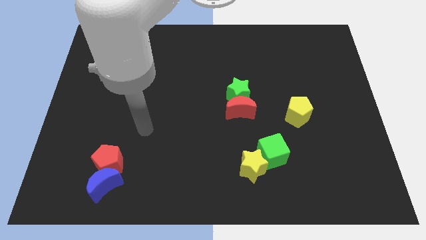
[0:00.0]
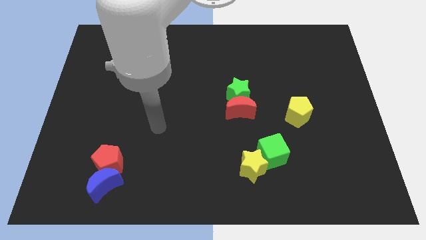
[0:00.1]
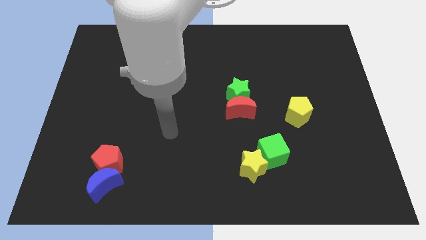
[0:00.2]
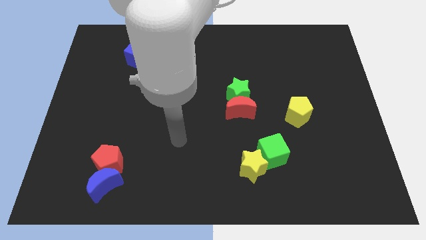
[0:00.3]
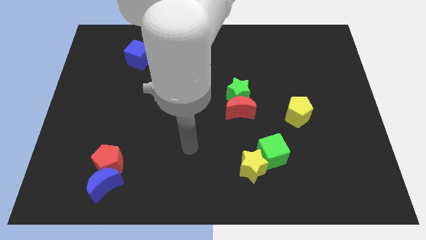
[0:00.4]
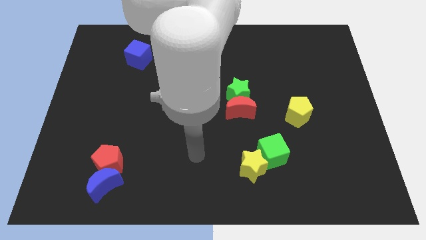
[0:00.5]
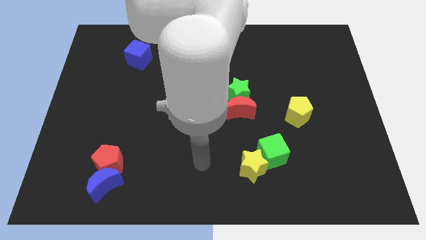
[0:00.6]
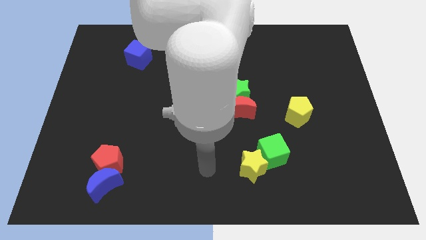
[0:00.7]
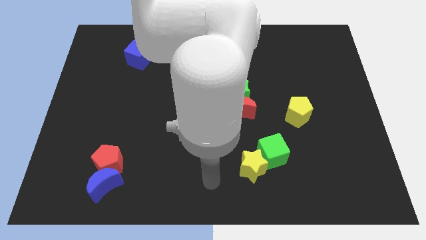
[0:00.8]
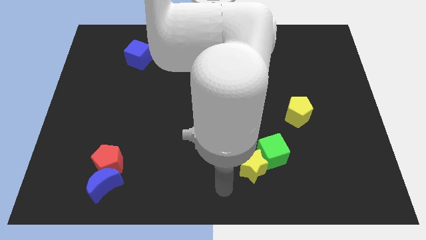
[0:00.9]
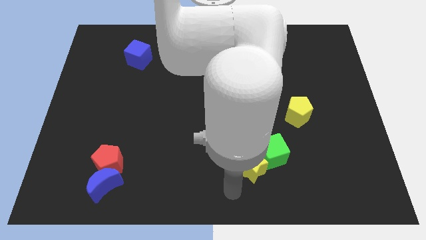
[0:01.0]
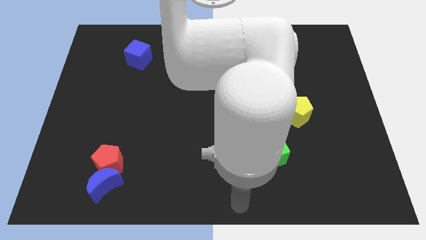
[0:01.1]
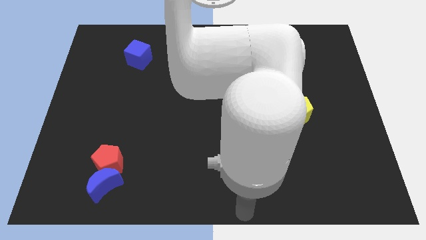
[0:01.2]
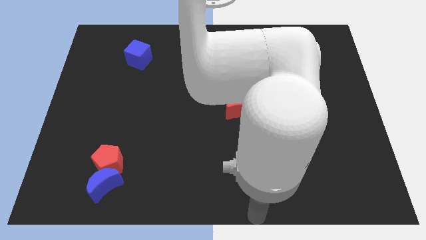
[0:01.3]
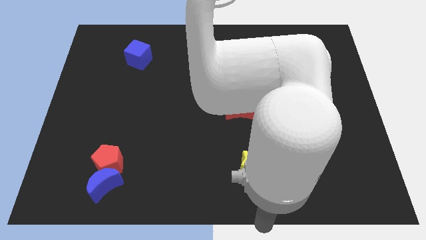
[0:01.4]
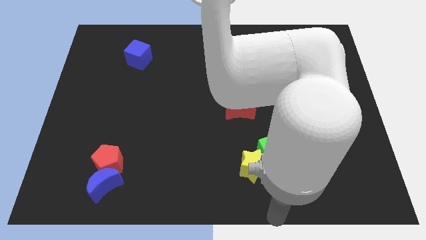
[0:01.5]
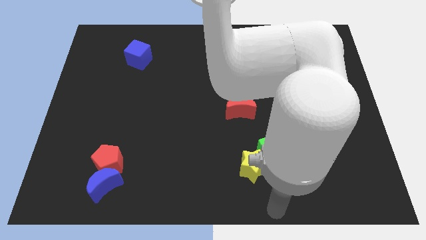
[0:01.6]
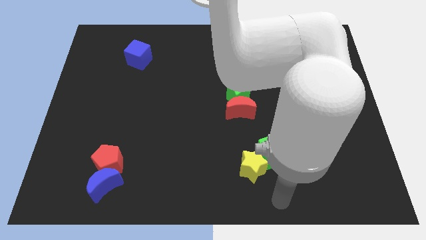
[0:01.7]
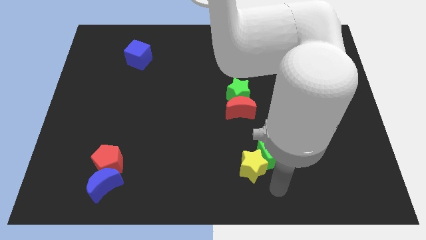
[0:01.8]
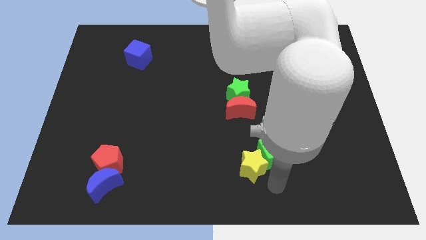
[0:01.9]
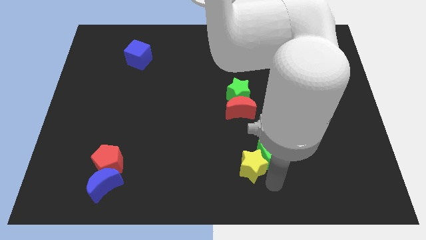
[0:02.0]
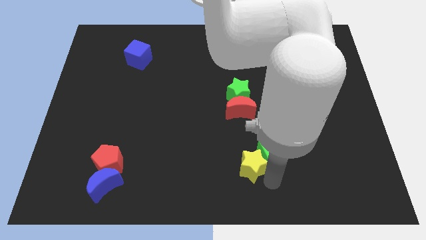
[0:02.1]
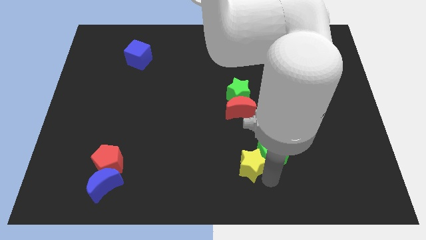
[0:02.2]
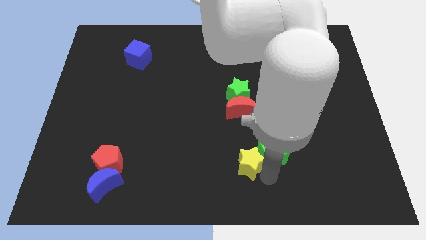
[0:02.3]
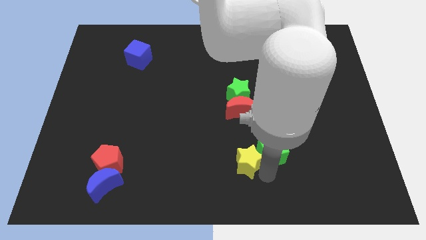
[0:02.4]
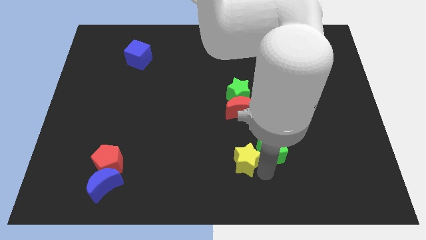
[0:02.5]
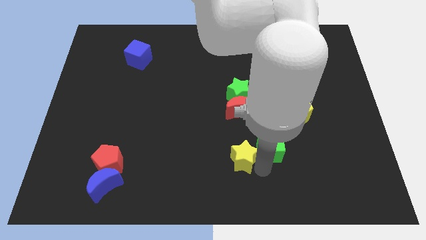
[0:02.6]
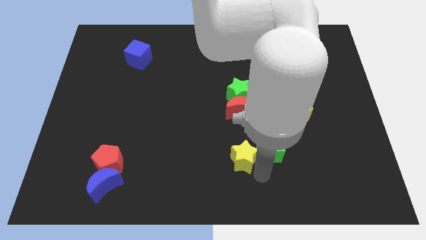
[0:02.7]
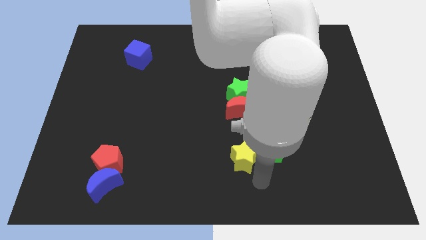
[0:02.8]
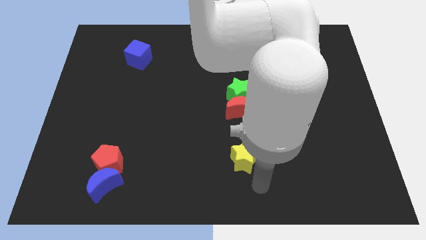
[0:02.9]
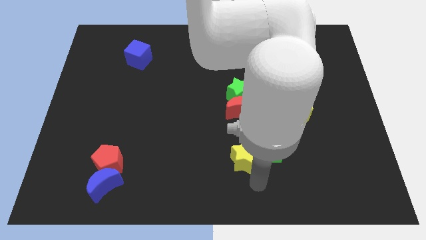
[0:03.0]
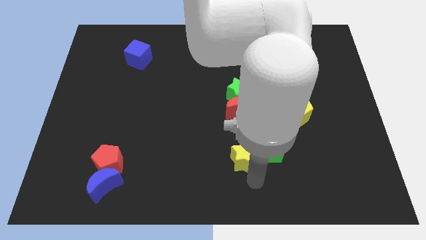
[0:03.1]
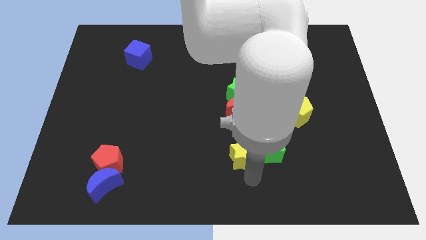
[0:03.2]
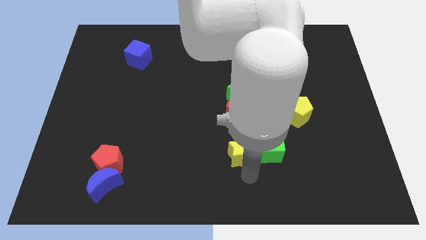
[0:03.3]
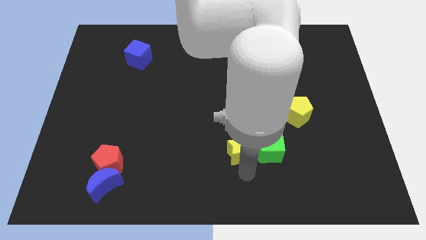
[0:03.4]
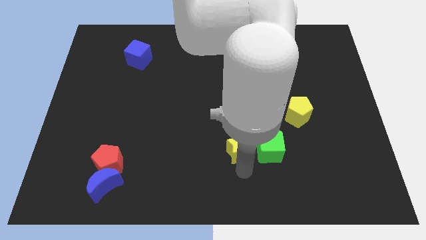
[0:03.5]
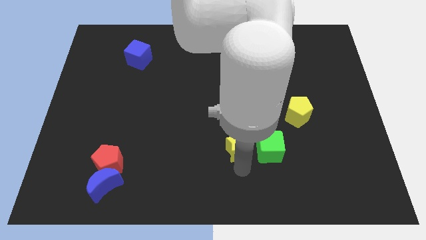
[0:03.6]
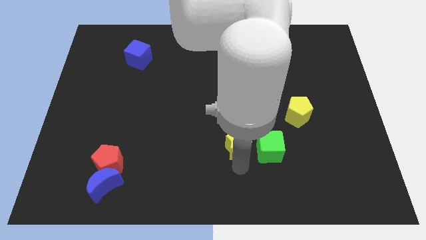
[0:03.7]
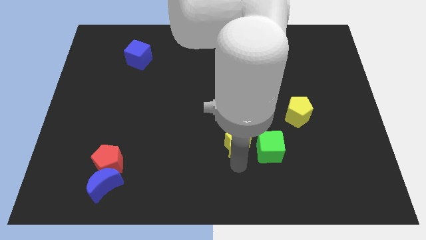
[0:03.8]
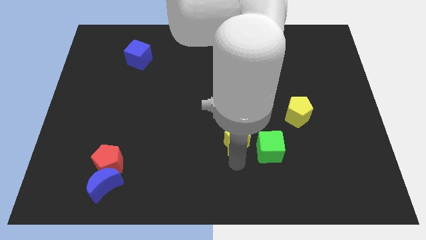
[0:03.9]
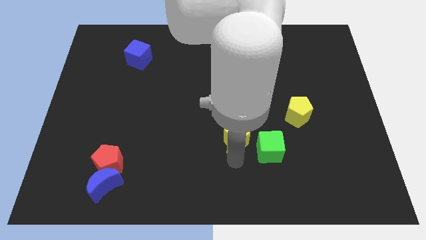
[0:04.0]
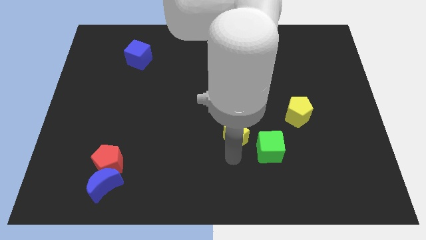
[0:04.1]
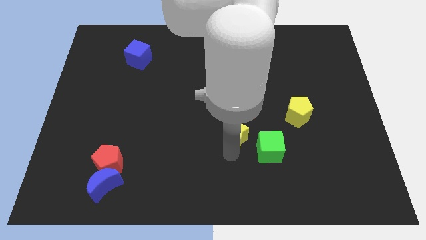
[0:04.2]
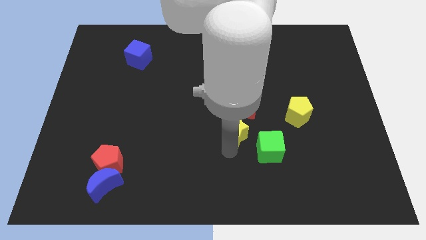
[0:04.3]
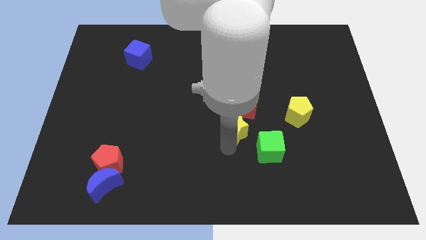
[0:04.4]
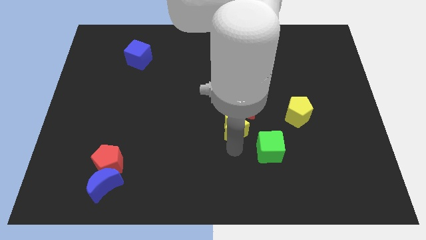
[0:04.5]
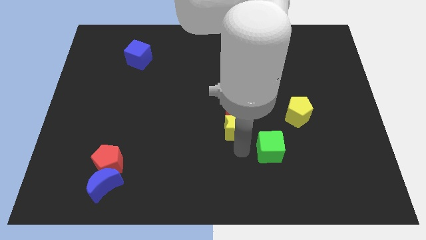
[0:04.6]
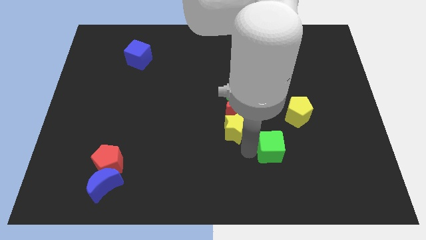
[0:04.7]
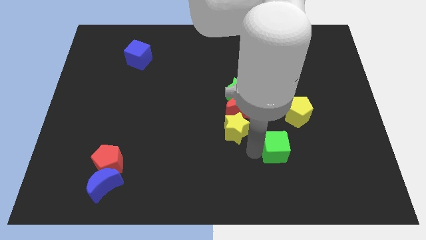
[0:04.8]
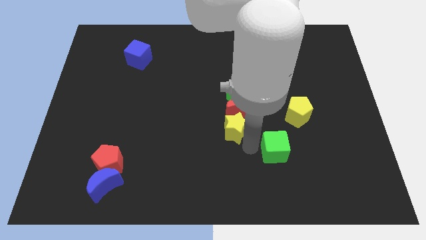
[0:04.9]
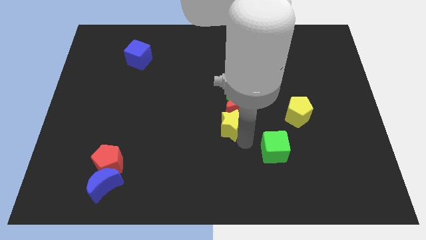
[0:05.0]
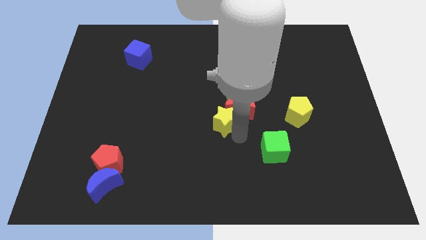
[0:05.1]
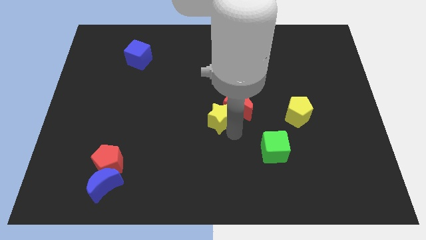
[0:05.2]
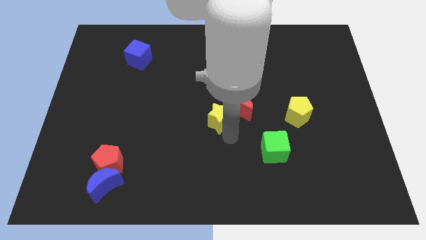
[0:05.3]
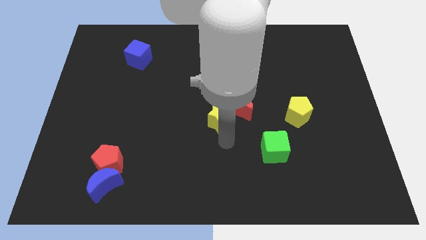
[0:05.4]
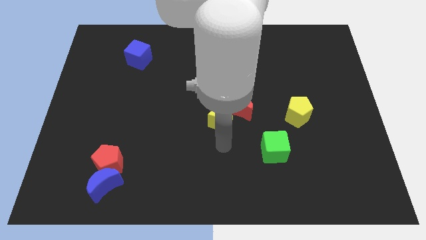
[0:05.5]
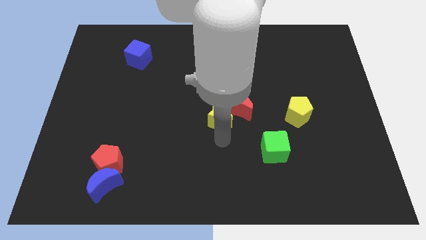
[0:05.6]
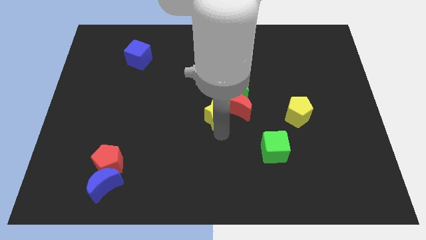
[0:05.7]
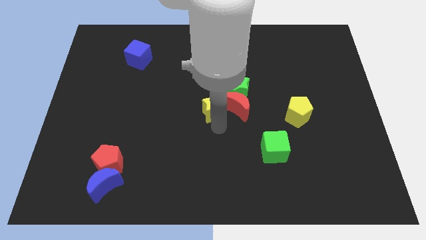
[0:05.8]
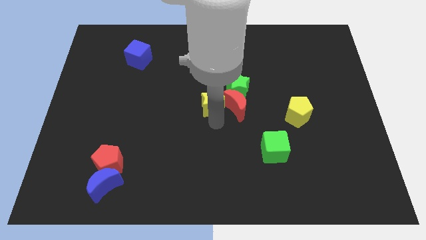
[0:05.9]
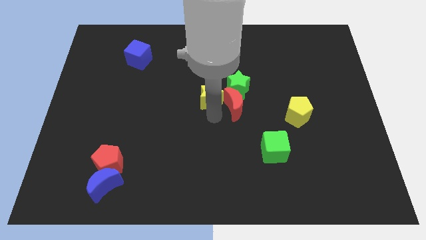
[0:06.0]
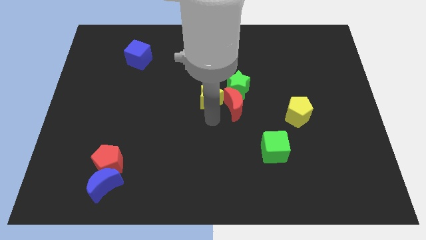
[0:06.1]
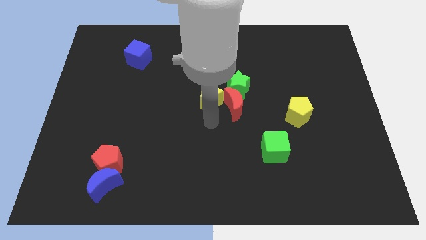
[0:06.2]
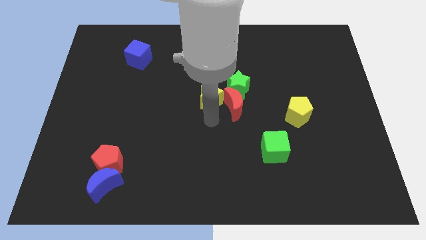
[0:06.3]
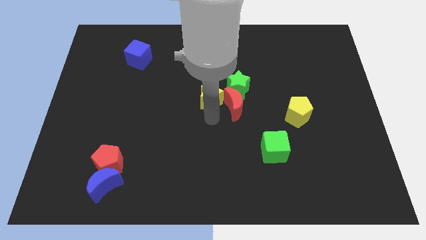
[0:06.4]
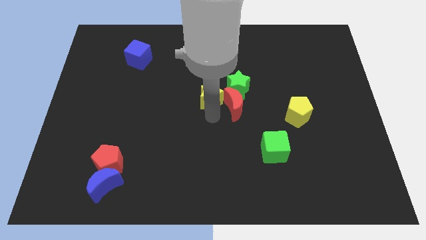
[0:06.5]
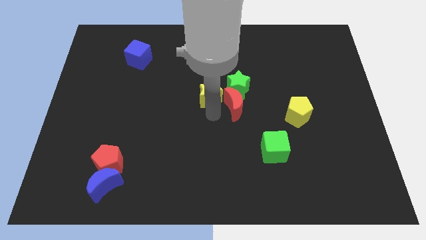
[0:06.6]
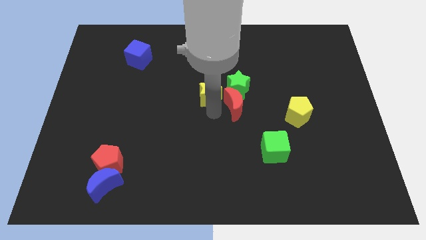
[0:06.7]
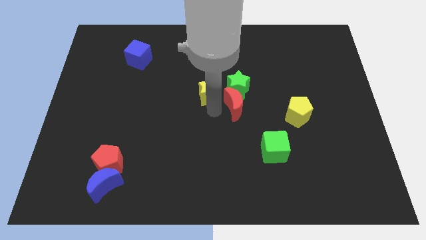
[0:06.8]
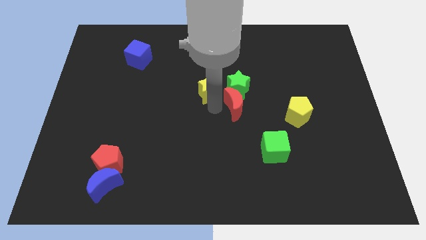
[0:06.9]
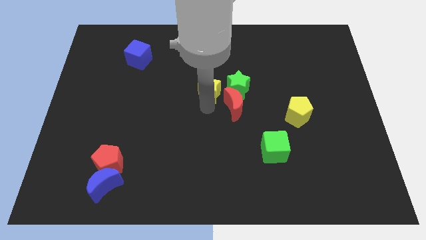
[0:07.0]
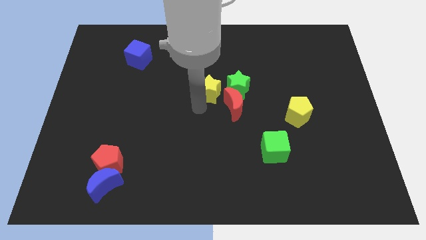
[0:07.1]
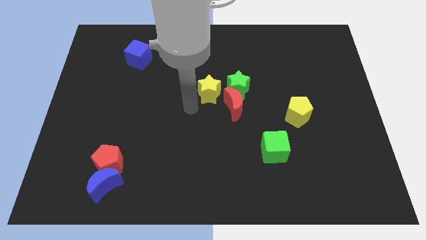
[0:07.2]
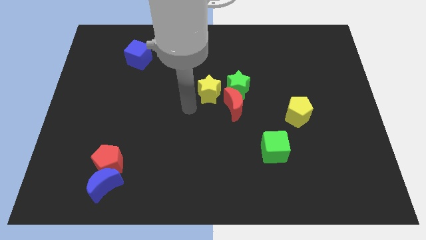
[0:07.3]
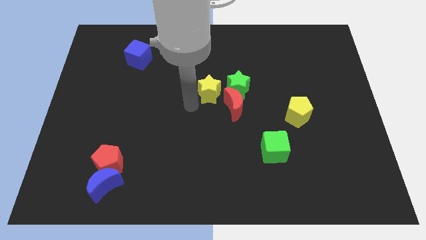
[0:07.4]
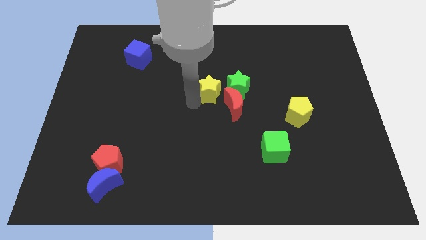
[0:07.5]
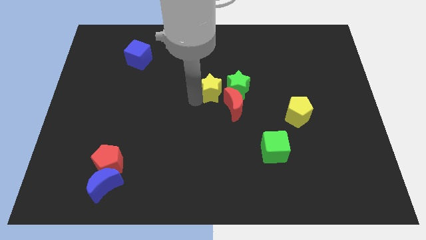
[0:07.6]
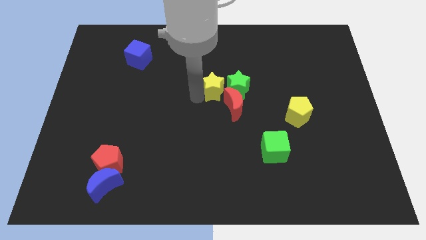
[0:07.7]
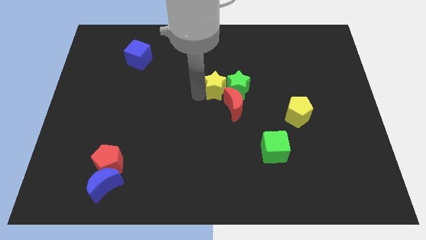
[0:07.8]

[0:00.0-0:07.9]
push the yellow star above the red moon
